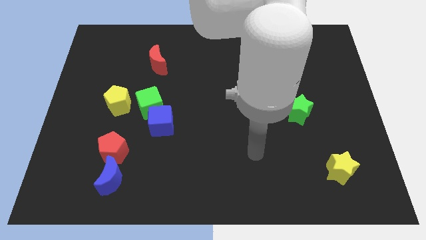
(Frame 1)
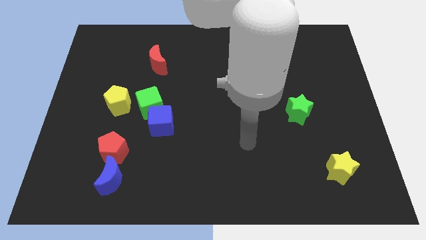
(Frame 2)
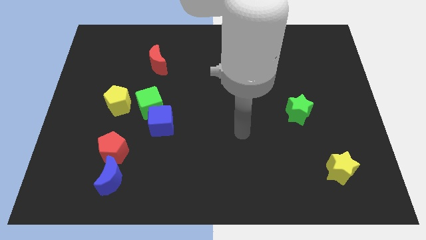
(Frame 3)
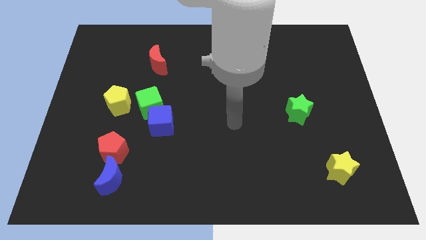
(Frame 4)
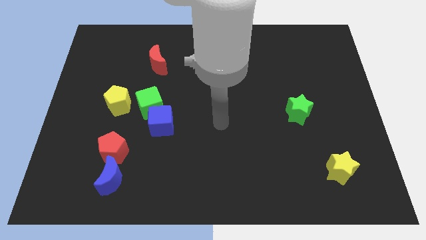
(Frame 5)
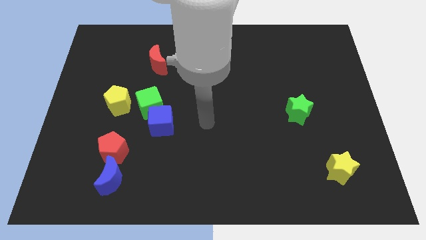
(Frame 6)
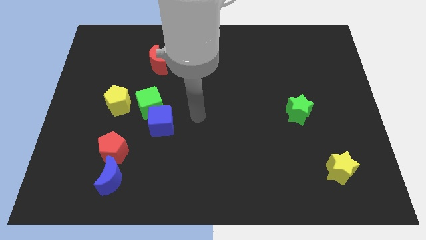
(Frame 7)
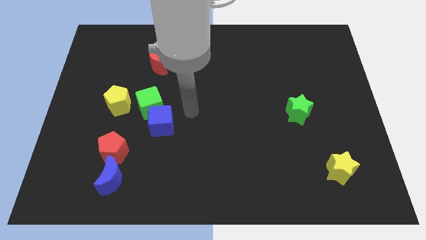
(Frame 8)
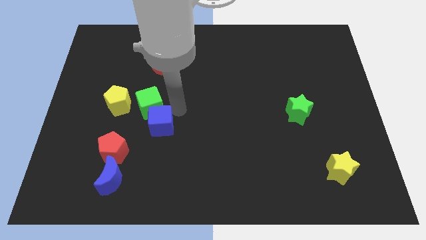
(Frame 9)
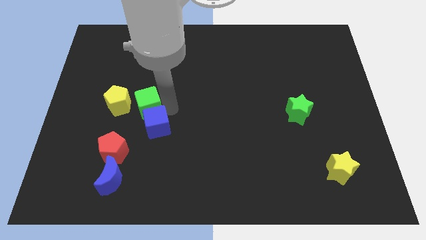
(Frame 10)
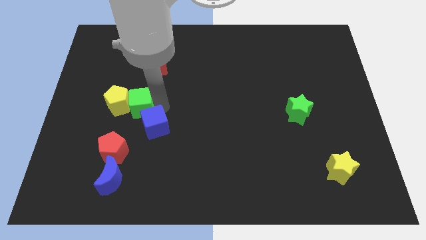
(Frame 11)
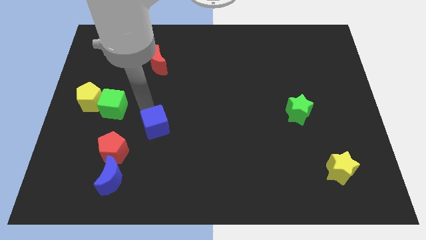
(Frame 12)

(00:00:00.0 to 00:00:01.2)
move the blue cube away from the green cube

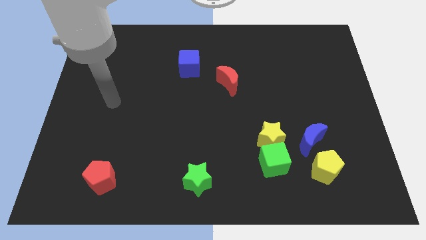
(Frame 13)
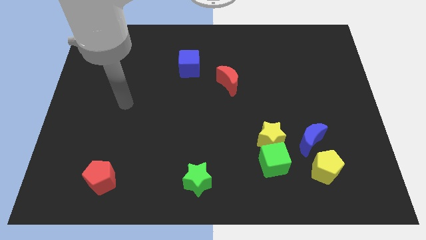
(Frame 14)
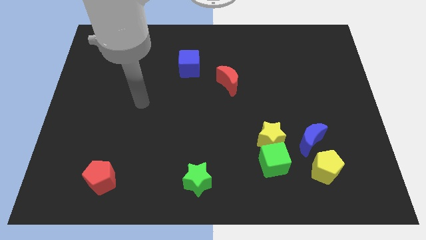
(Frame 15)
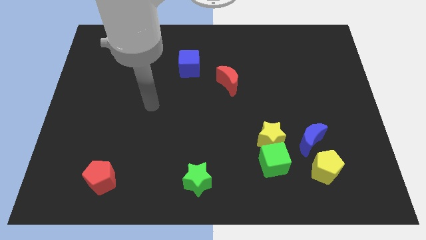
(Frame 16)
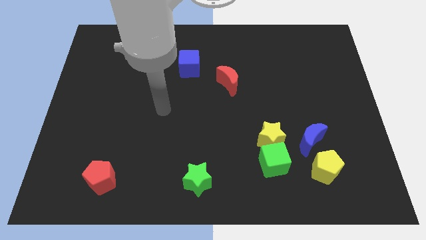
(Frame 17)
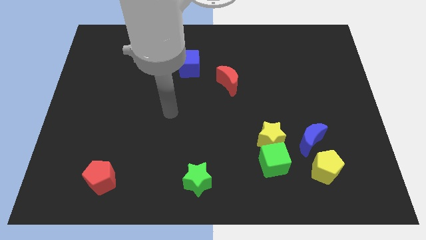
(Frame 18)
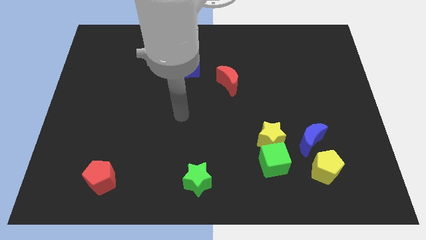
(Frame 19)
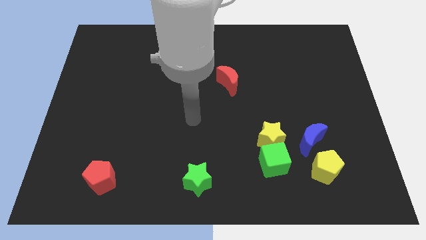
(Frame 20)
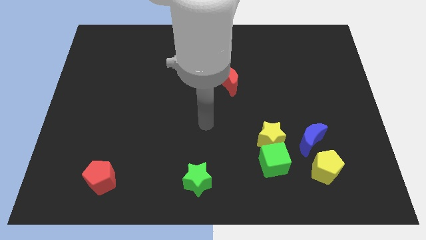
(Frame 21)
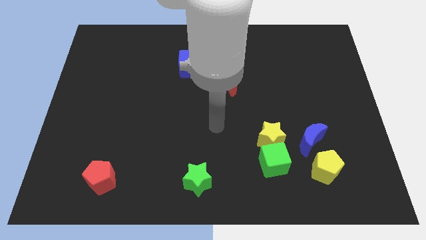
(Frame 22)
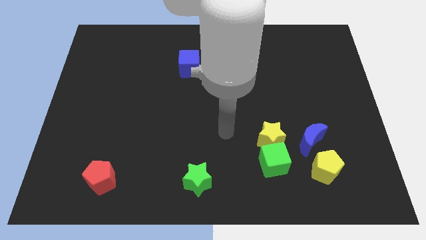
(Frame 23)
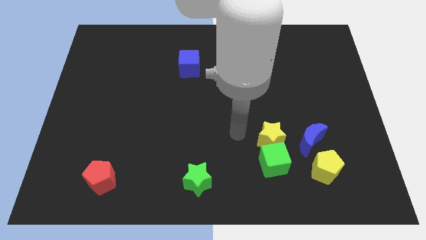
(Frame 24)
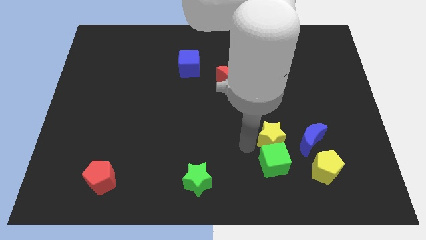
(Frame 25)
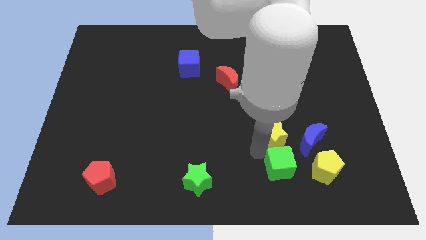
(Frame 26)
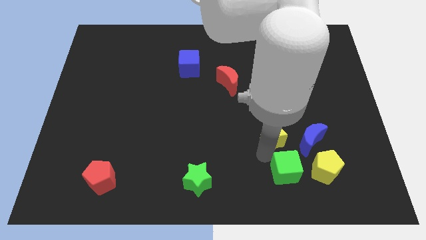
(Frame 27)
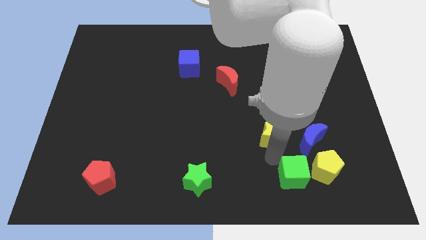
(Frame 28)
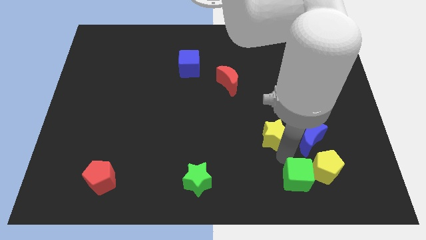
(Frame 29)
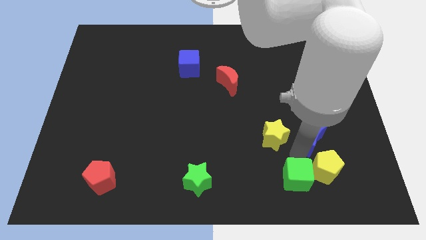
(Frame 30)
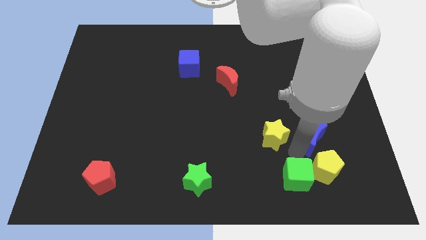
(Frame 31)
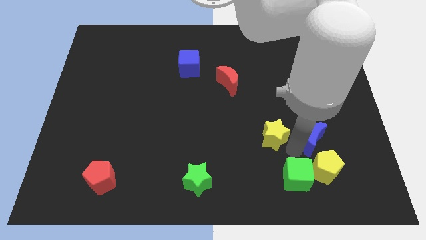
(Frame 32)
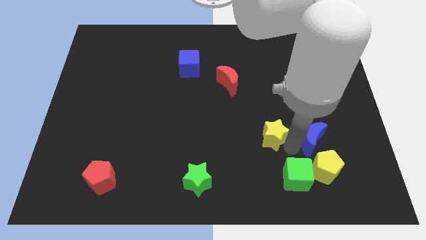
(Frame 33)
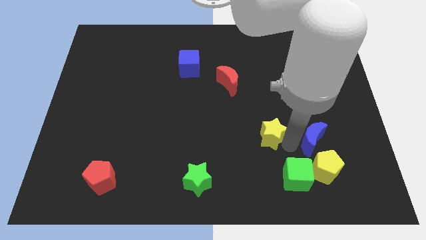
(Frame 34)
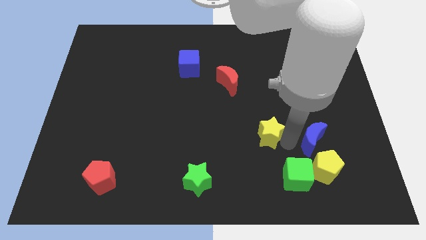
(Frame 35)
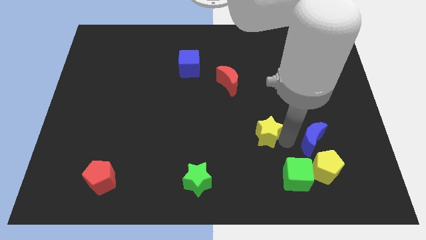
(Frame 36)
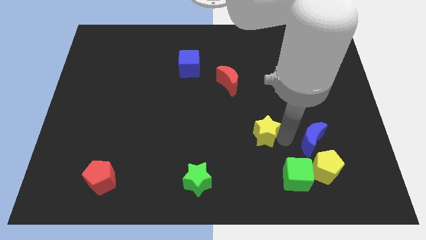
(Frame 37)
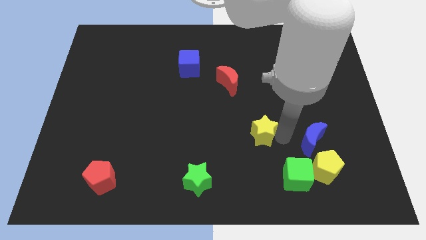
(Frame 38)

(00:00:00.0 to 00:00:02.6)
separate the yellow star from the green cube and blue moon

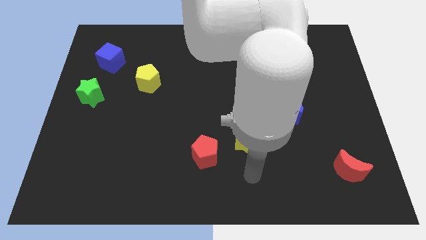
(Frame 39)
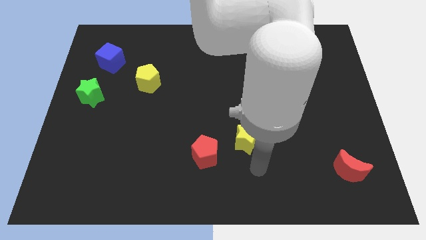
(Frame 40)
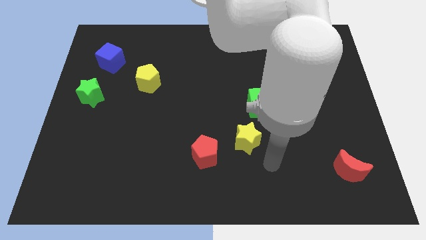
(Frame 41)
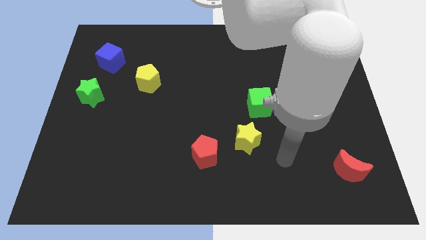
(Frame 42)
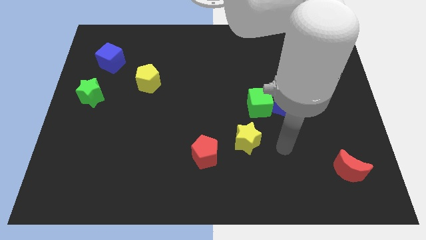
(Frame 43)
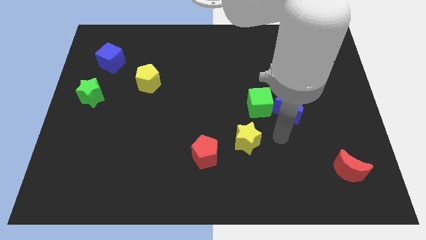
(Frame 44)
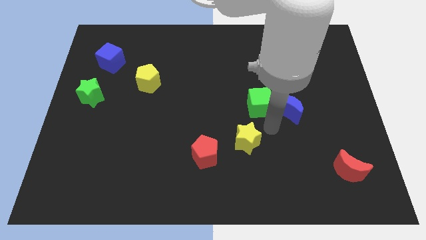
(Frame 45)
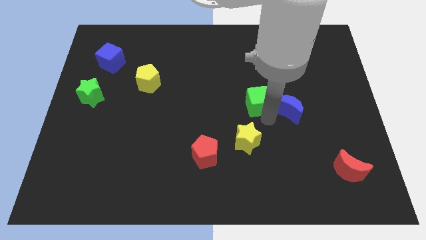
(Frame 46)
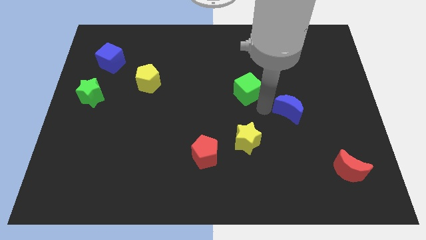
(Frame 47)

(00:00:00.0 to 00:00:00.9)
move the blue moon away from the green cube

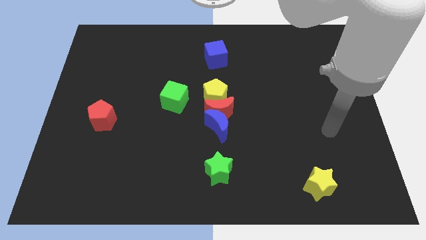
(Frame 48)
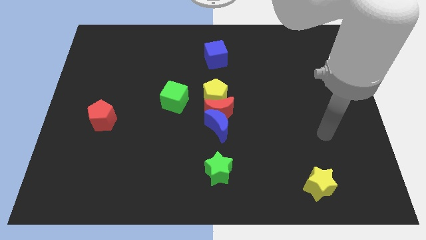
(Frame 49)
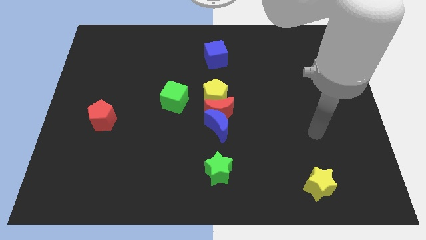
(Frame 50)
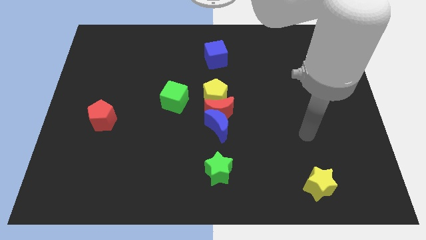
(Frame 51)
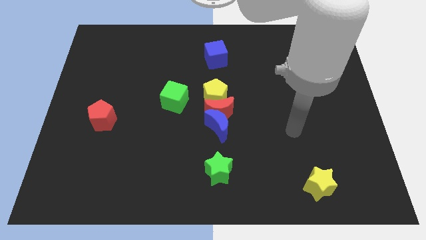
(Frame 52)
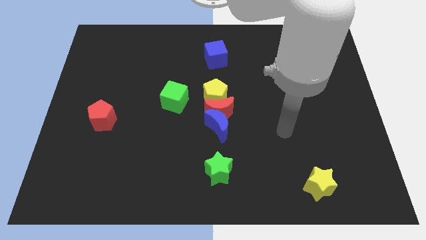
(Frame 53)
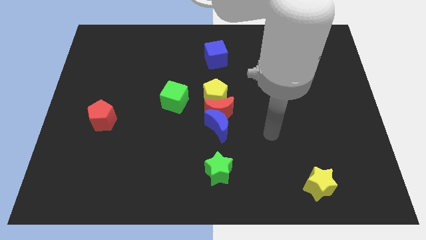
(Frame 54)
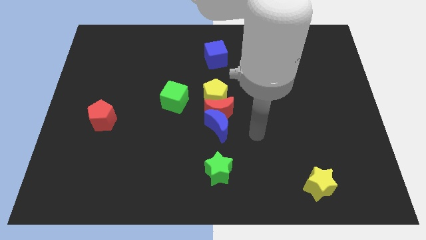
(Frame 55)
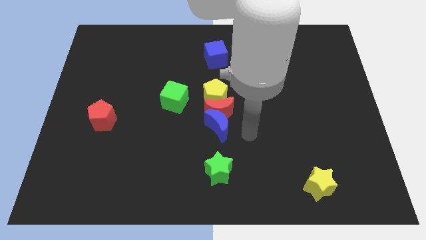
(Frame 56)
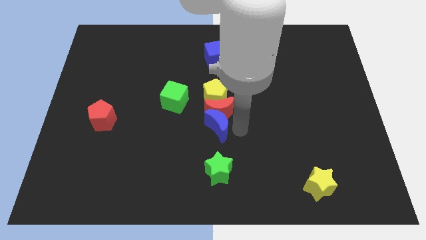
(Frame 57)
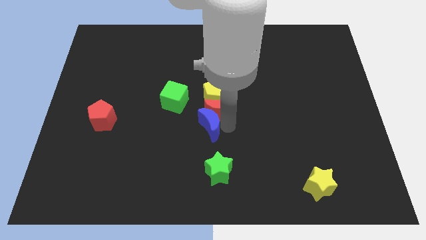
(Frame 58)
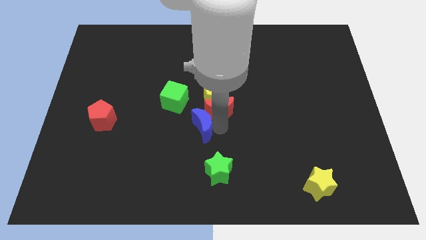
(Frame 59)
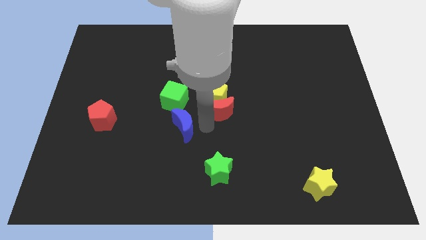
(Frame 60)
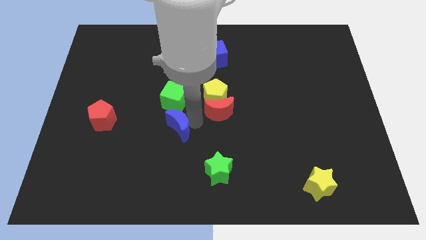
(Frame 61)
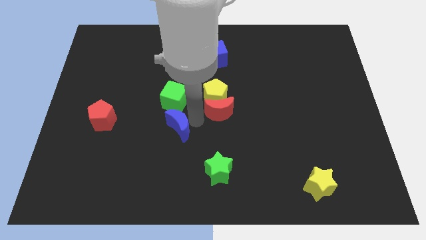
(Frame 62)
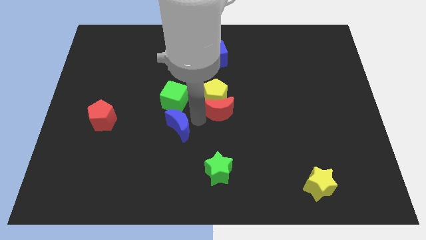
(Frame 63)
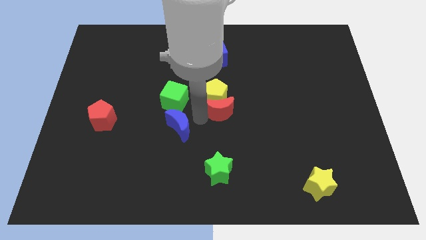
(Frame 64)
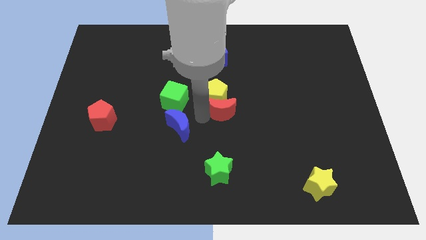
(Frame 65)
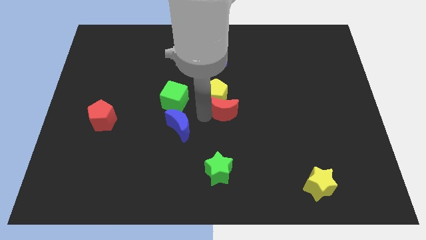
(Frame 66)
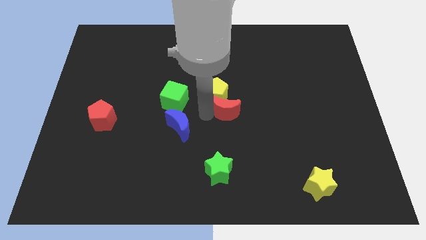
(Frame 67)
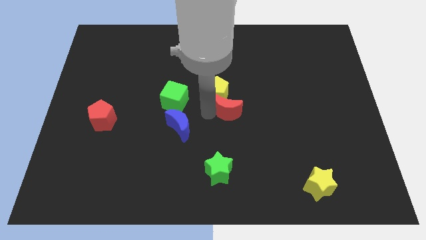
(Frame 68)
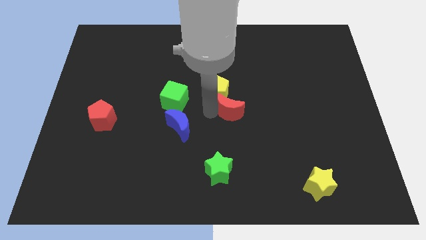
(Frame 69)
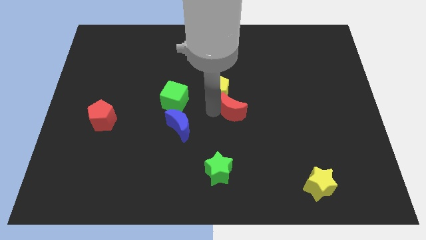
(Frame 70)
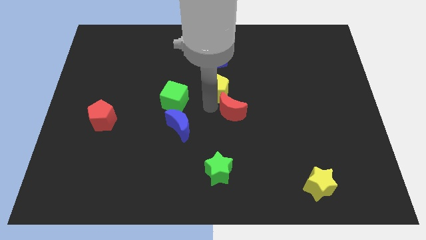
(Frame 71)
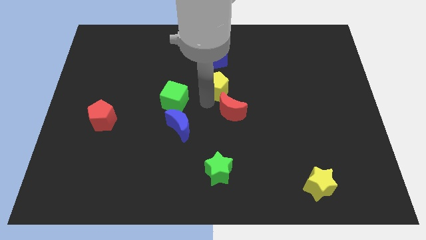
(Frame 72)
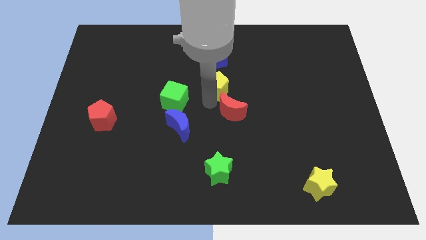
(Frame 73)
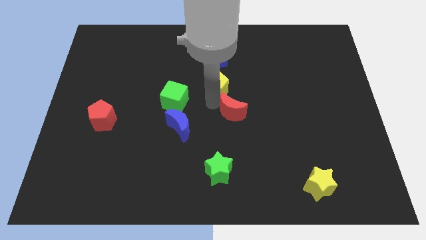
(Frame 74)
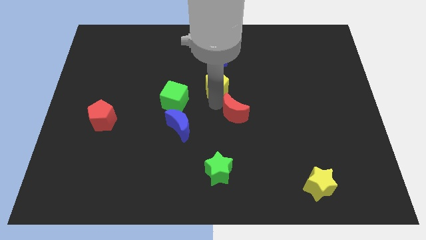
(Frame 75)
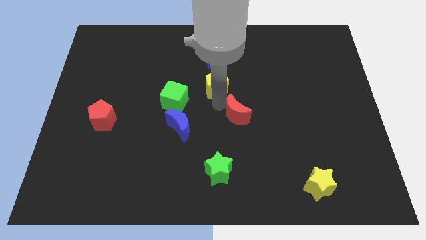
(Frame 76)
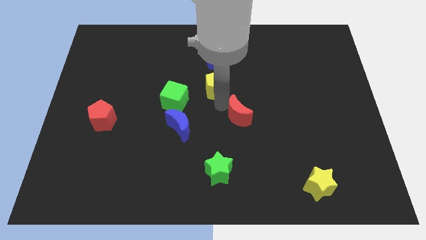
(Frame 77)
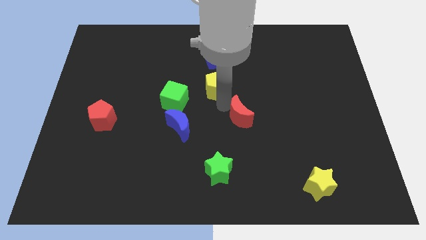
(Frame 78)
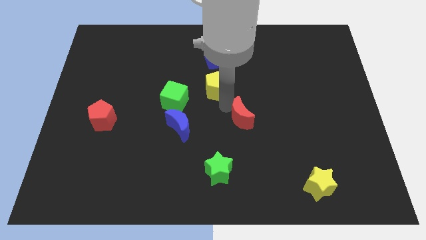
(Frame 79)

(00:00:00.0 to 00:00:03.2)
separate the red moon from the blue moon and yellow pentagon

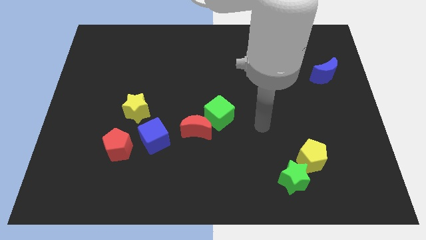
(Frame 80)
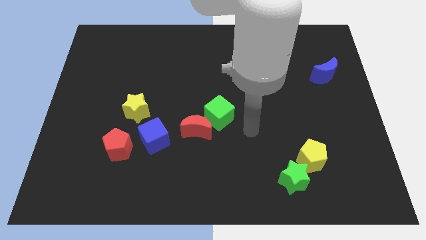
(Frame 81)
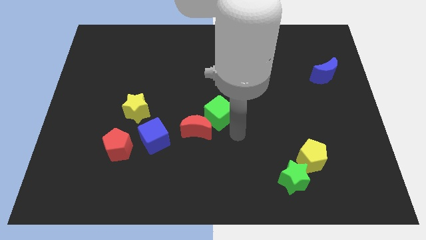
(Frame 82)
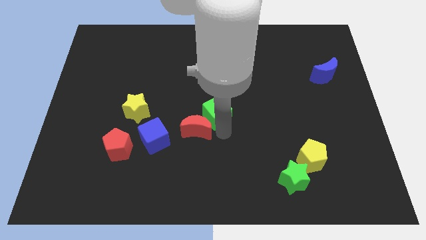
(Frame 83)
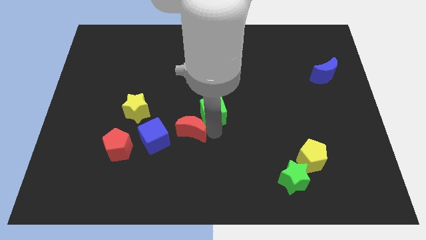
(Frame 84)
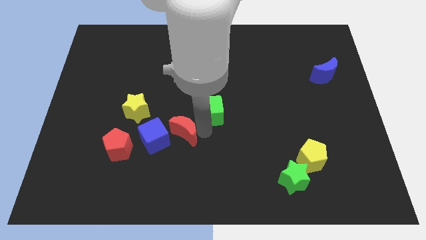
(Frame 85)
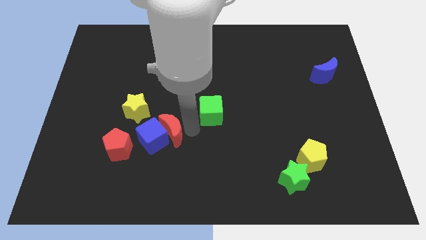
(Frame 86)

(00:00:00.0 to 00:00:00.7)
pull the green cube apart from the red moon

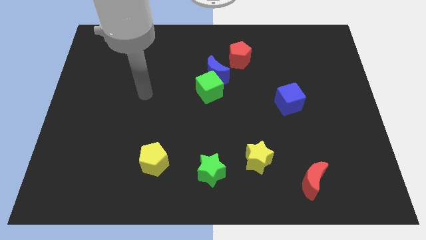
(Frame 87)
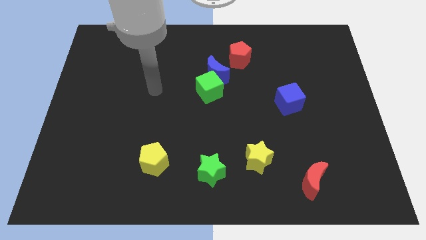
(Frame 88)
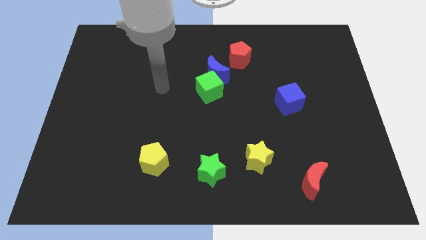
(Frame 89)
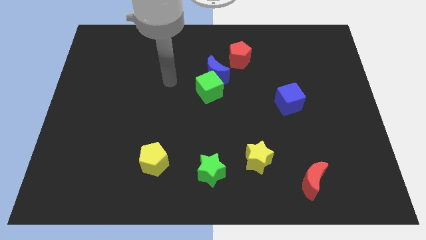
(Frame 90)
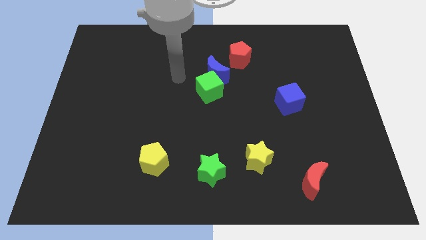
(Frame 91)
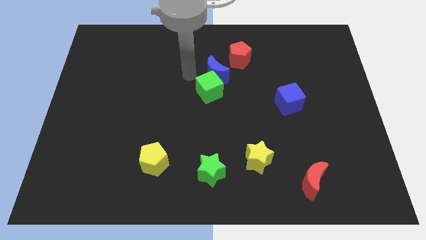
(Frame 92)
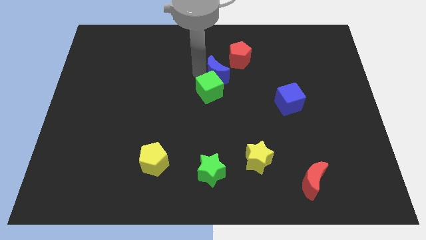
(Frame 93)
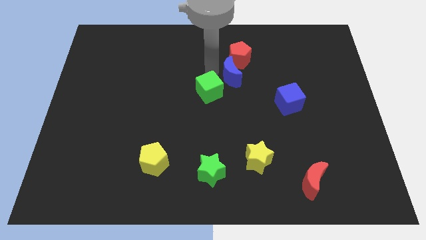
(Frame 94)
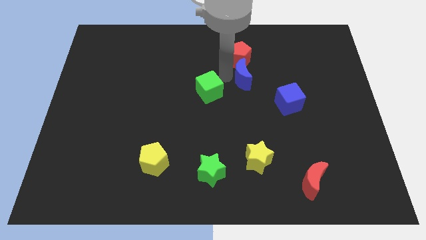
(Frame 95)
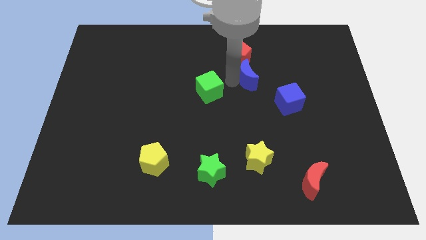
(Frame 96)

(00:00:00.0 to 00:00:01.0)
separate the green cube from the blue moon
